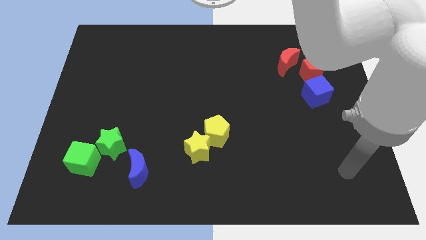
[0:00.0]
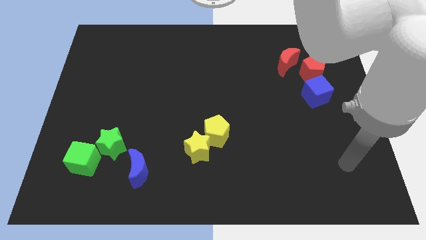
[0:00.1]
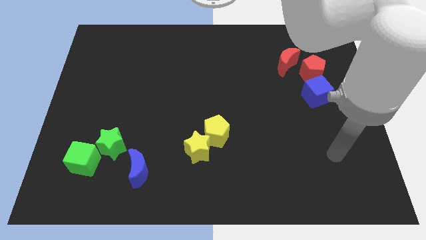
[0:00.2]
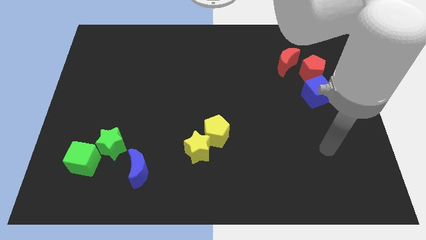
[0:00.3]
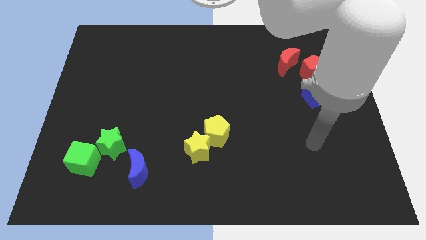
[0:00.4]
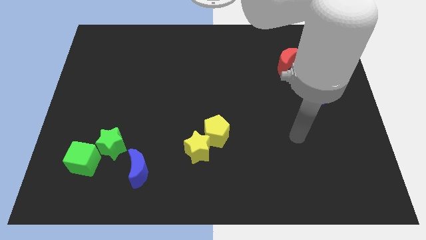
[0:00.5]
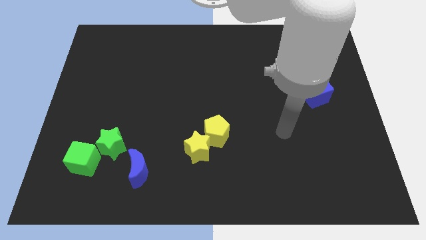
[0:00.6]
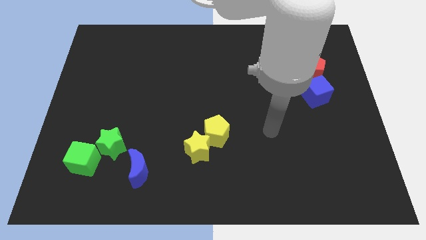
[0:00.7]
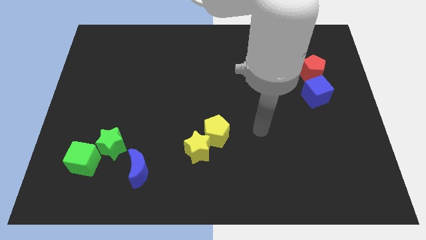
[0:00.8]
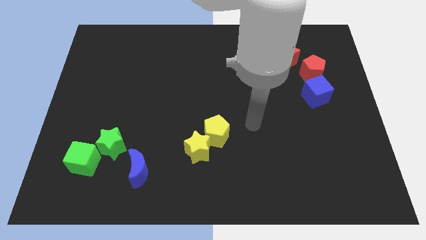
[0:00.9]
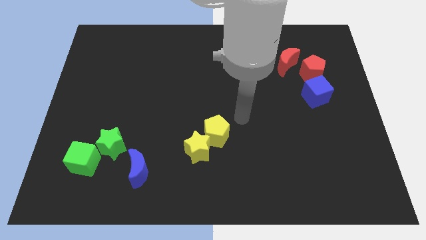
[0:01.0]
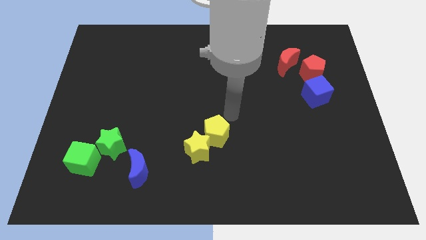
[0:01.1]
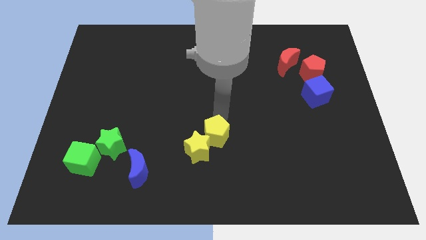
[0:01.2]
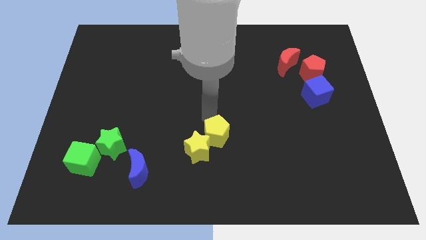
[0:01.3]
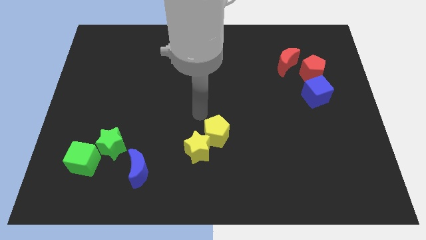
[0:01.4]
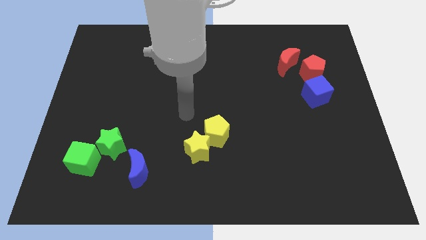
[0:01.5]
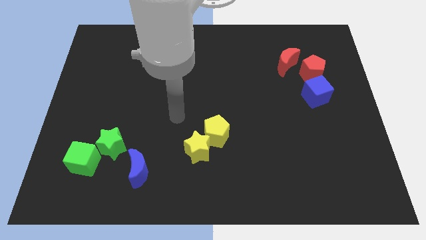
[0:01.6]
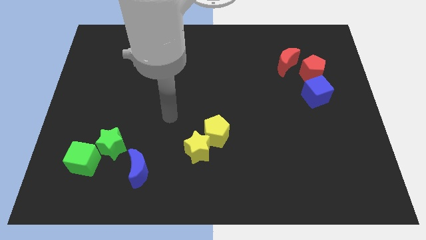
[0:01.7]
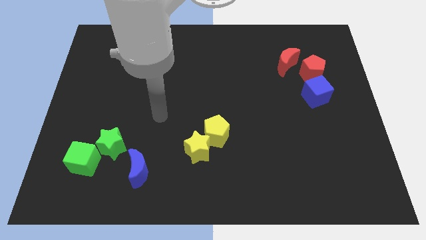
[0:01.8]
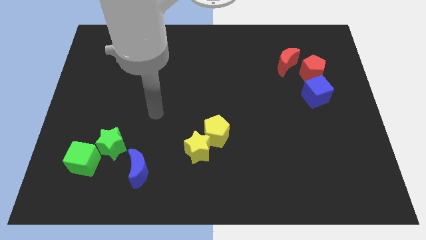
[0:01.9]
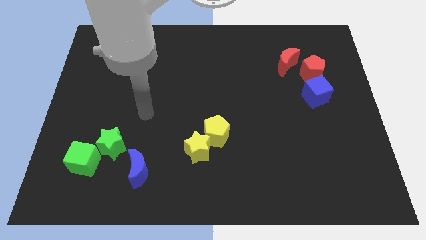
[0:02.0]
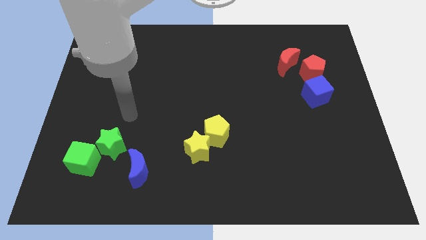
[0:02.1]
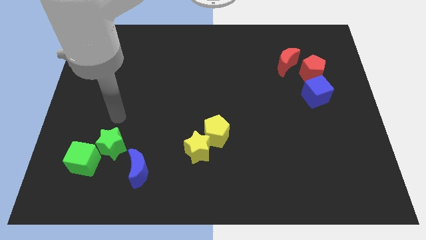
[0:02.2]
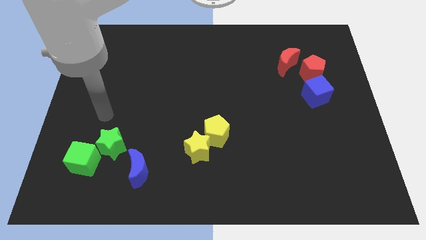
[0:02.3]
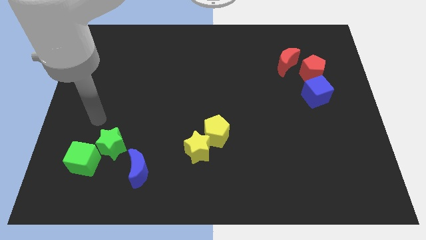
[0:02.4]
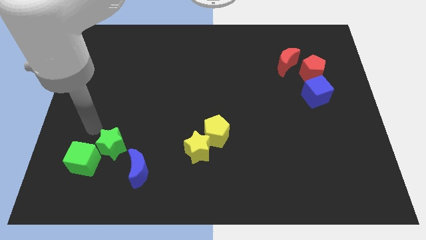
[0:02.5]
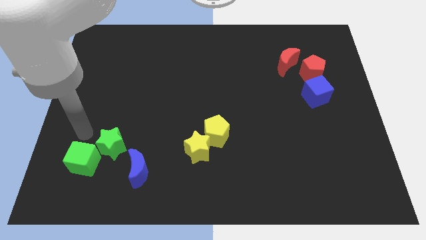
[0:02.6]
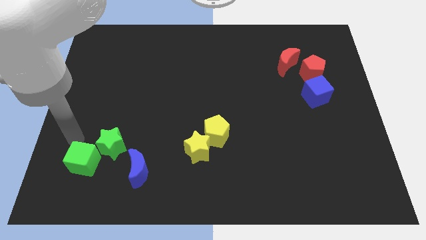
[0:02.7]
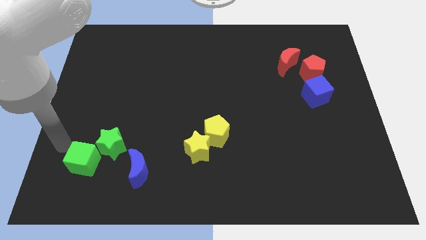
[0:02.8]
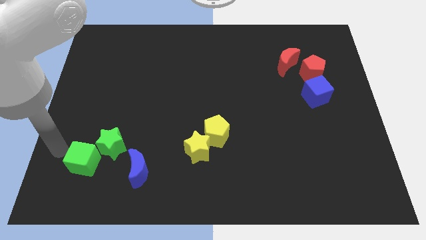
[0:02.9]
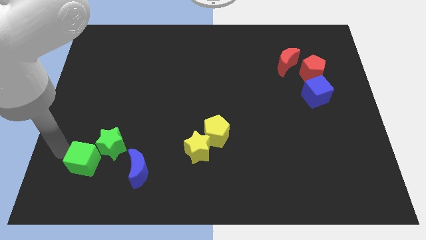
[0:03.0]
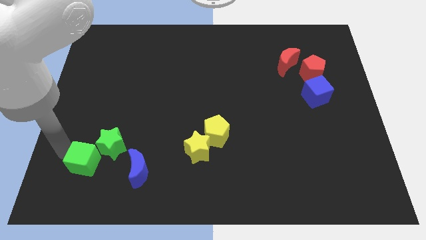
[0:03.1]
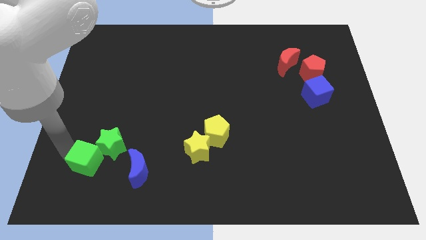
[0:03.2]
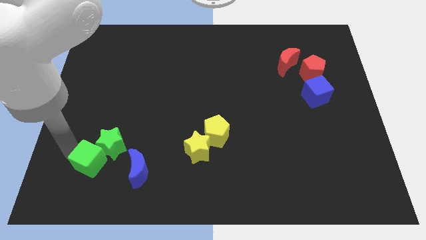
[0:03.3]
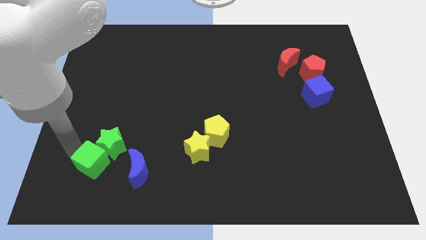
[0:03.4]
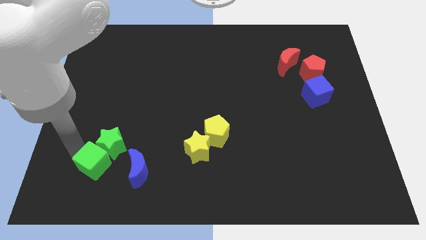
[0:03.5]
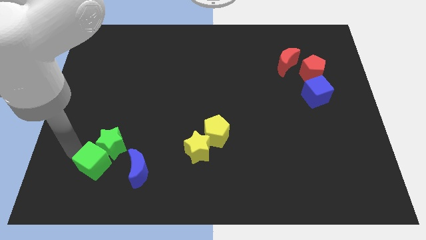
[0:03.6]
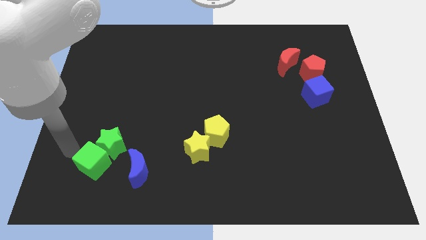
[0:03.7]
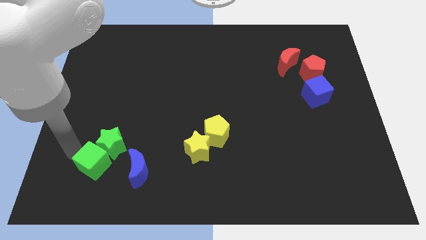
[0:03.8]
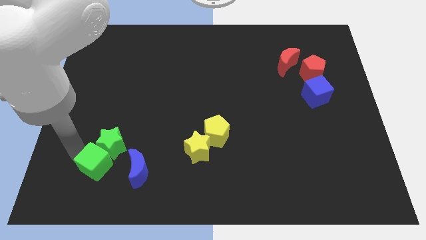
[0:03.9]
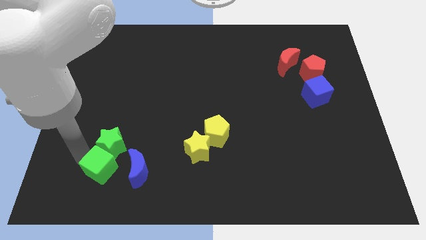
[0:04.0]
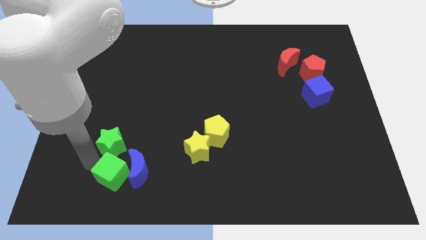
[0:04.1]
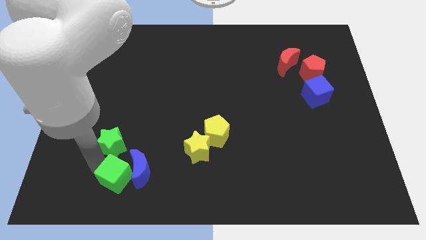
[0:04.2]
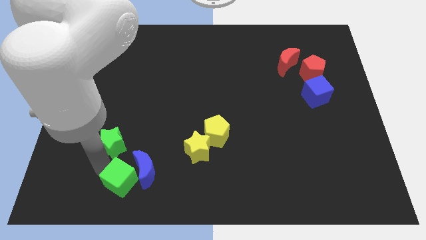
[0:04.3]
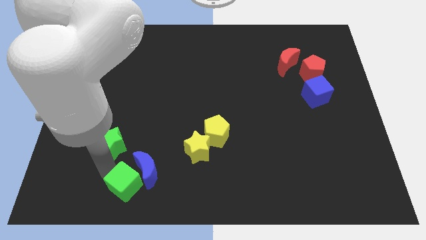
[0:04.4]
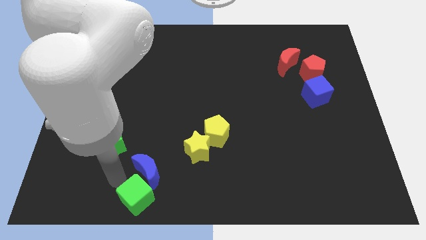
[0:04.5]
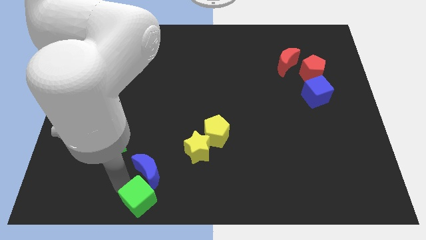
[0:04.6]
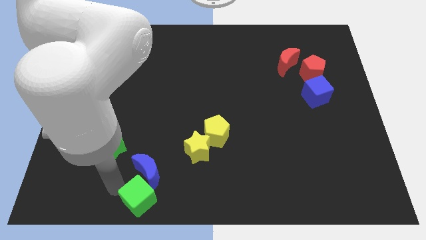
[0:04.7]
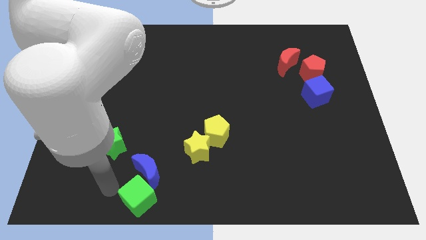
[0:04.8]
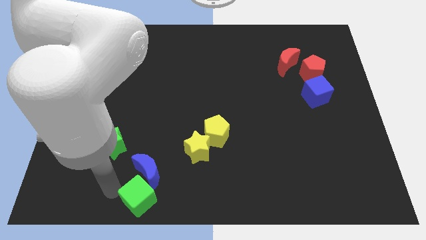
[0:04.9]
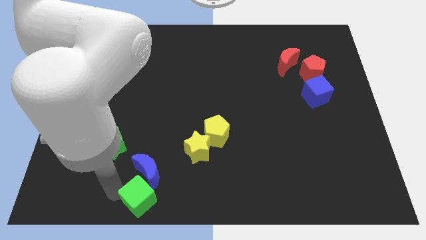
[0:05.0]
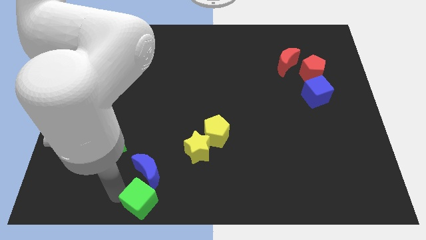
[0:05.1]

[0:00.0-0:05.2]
slide the green cube to the bottom side

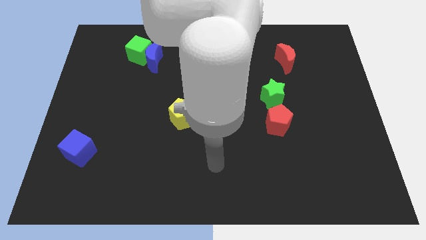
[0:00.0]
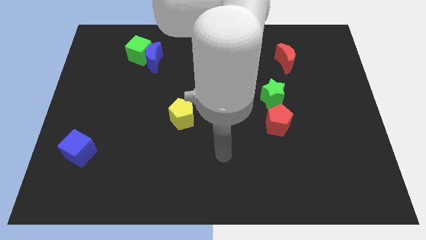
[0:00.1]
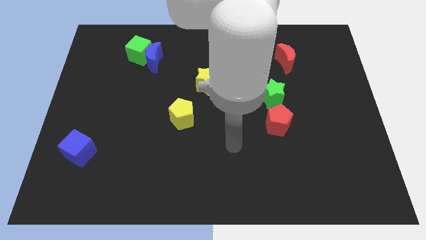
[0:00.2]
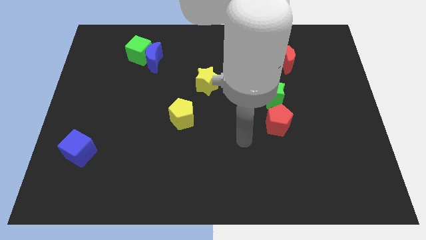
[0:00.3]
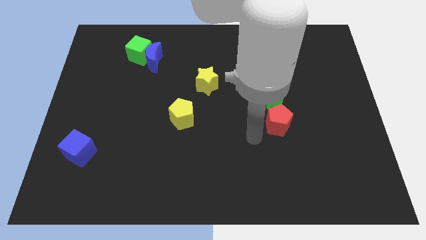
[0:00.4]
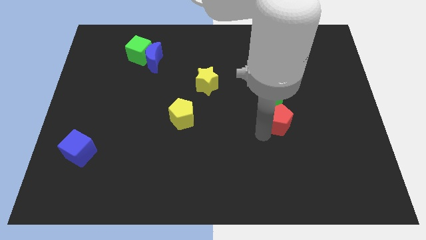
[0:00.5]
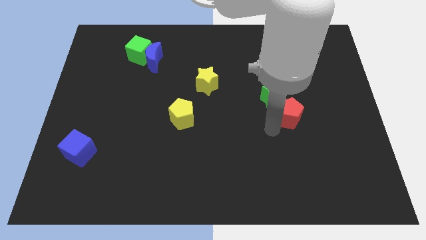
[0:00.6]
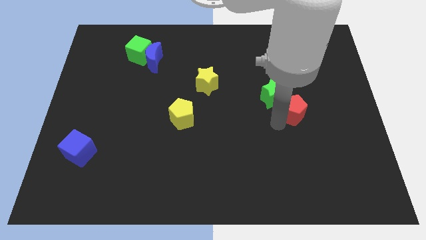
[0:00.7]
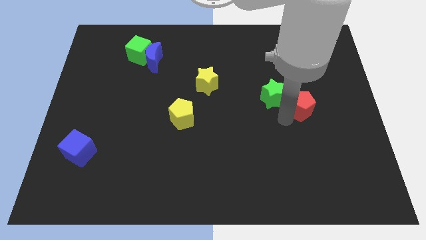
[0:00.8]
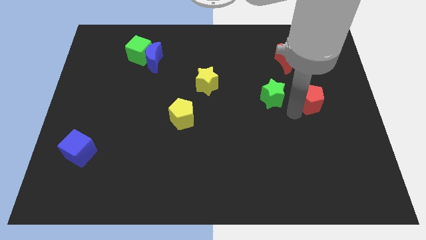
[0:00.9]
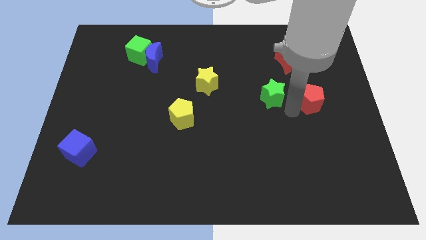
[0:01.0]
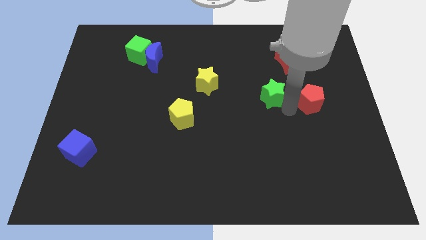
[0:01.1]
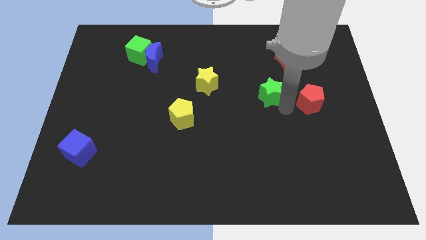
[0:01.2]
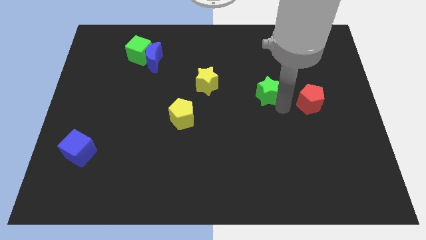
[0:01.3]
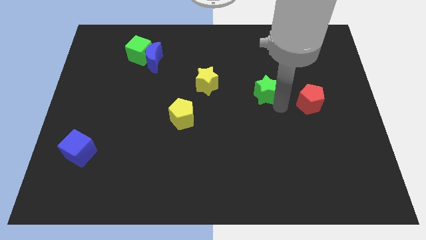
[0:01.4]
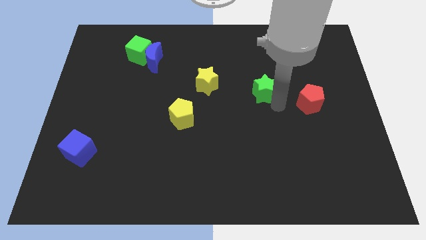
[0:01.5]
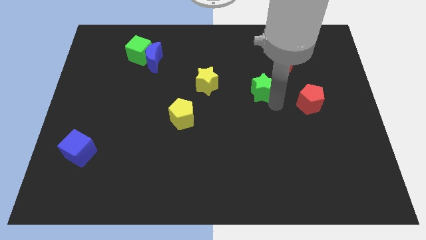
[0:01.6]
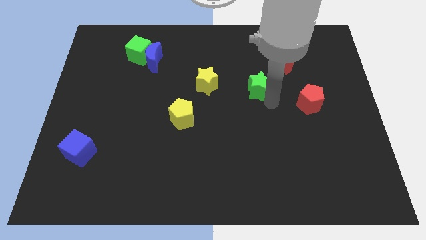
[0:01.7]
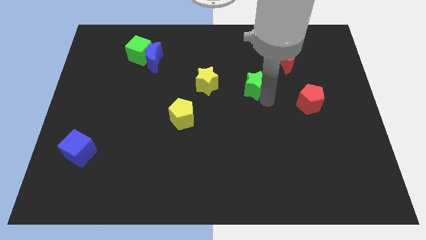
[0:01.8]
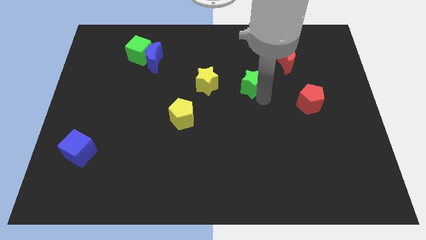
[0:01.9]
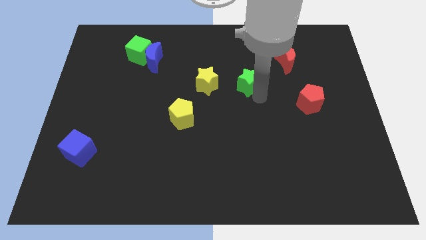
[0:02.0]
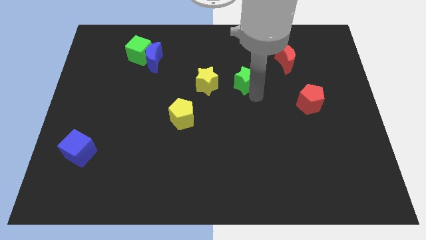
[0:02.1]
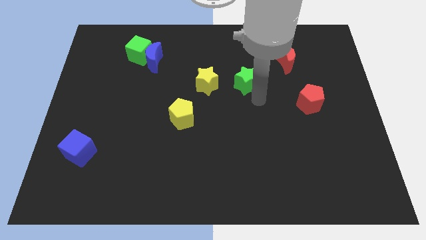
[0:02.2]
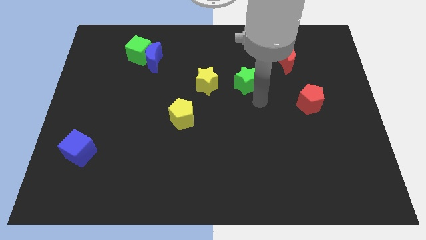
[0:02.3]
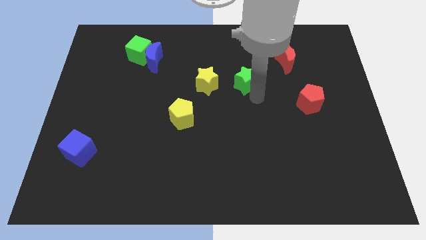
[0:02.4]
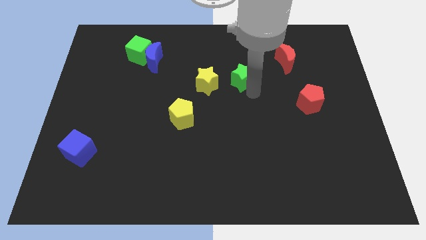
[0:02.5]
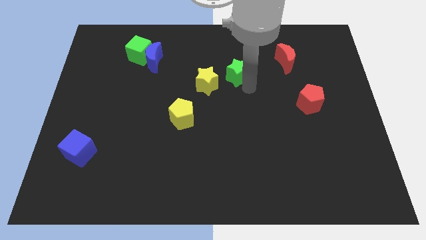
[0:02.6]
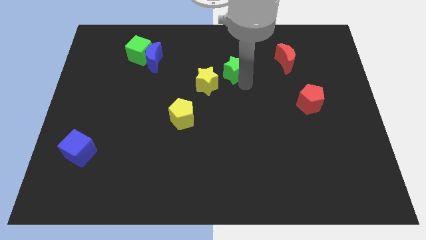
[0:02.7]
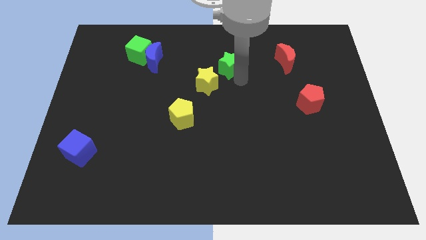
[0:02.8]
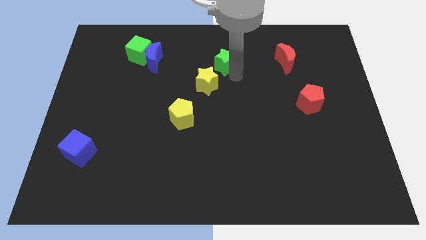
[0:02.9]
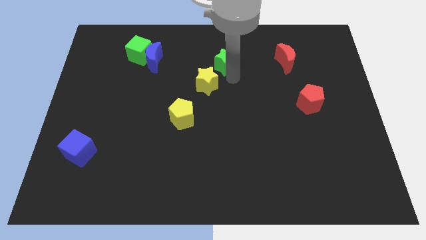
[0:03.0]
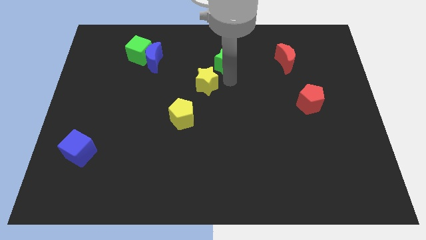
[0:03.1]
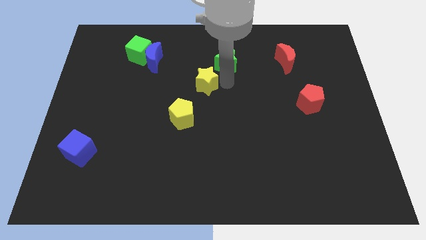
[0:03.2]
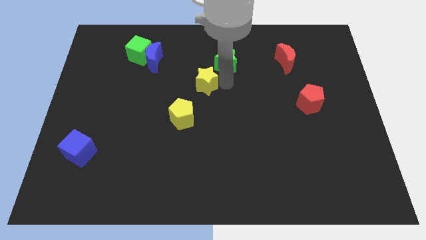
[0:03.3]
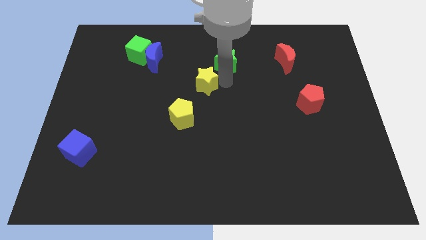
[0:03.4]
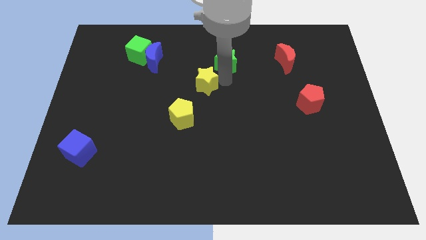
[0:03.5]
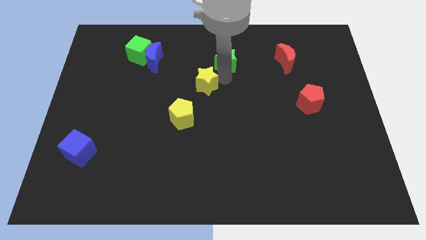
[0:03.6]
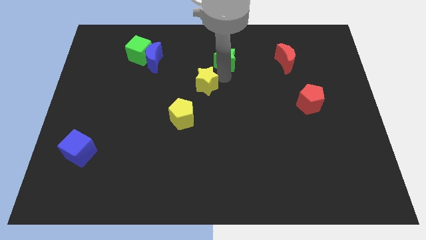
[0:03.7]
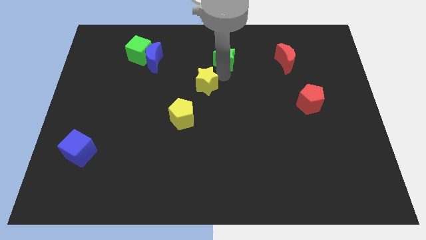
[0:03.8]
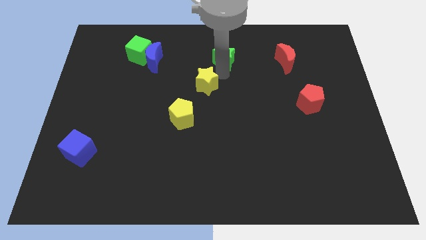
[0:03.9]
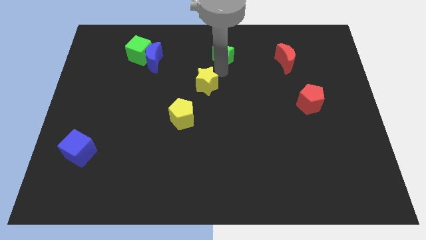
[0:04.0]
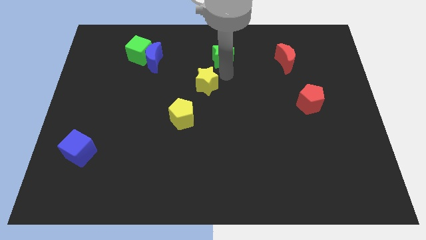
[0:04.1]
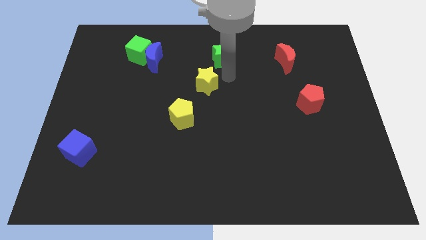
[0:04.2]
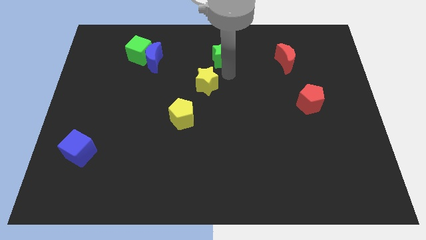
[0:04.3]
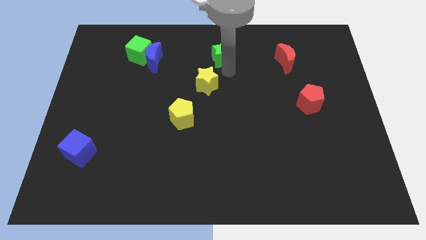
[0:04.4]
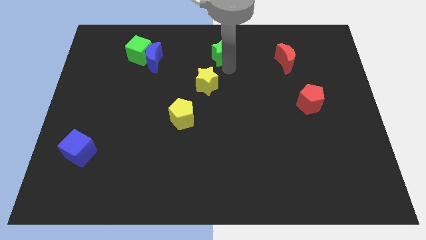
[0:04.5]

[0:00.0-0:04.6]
move the green star to the towards your base
